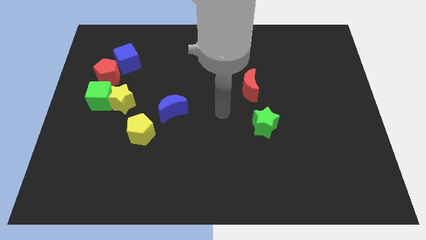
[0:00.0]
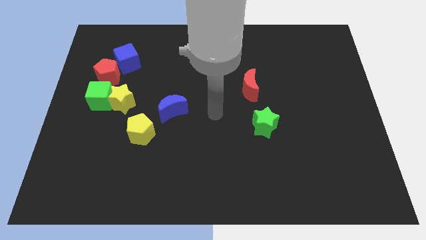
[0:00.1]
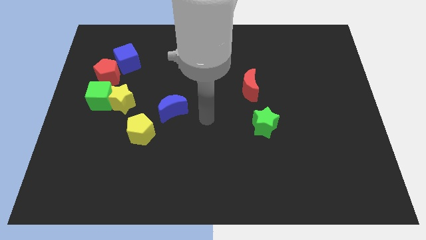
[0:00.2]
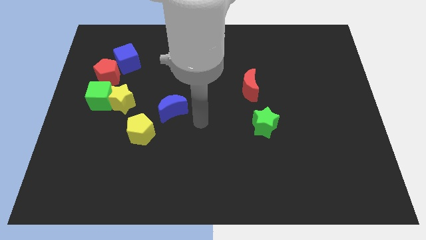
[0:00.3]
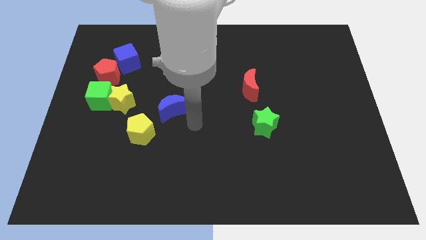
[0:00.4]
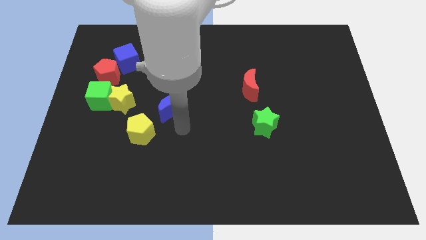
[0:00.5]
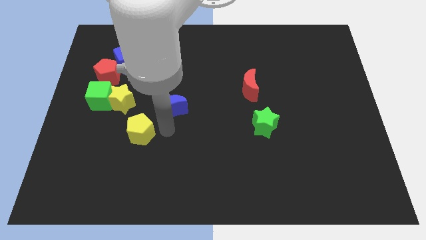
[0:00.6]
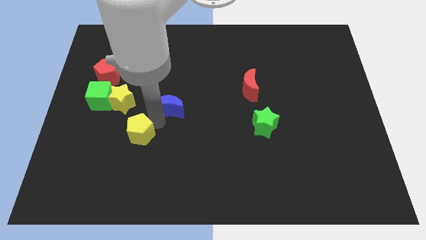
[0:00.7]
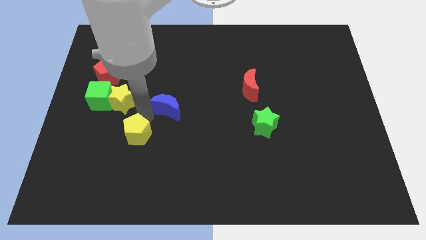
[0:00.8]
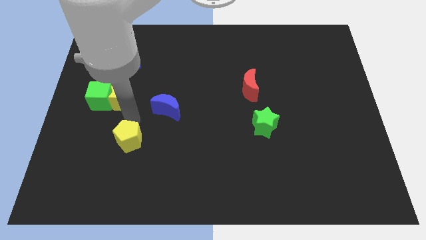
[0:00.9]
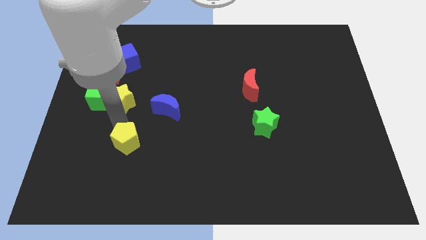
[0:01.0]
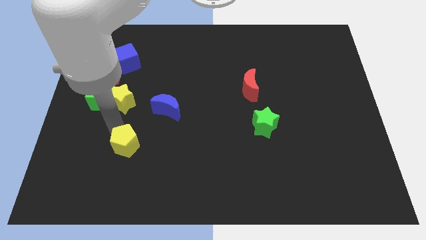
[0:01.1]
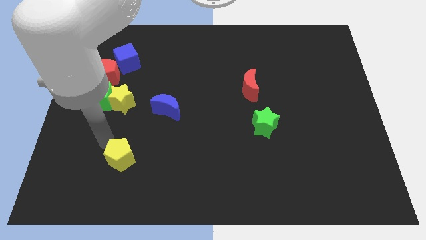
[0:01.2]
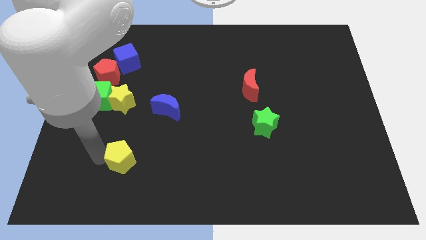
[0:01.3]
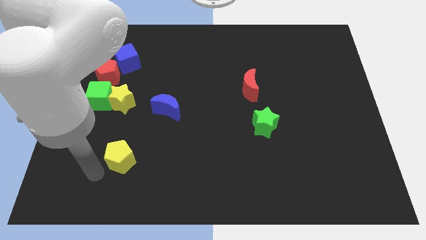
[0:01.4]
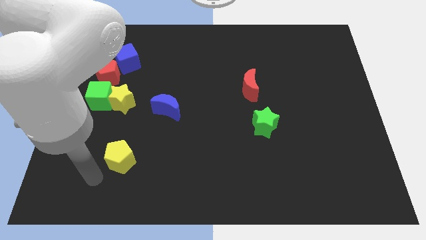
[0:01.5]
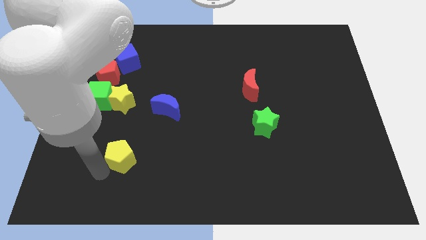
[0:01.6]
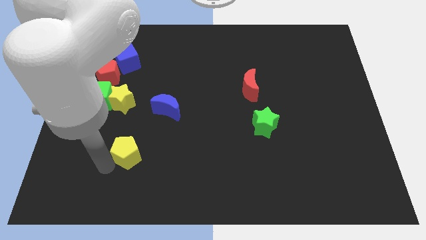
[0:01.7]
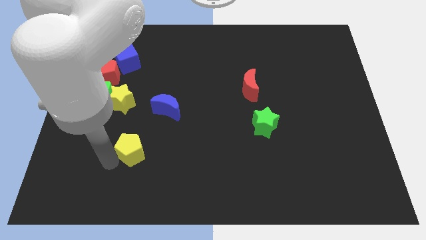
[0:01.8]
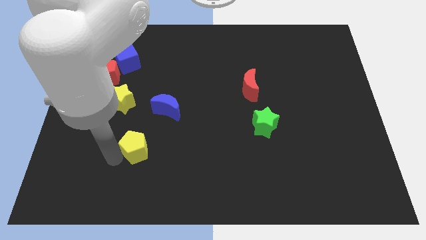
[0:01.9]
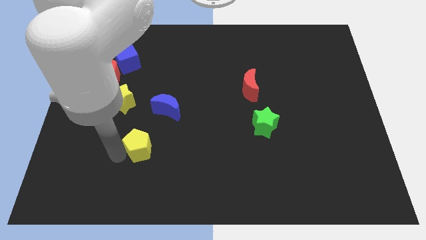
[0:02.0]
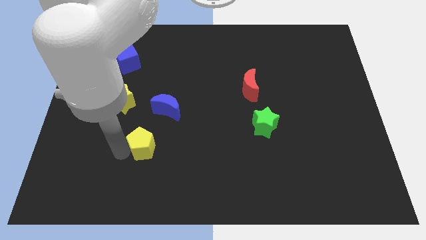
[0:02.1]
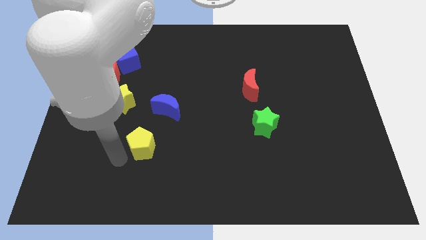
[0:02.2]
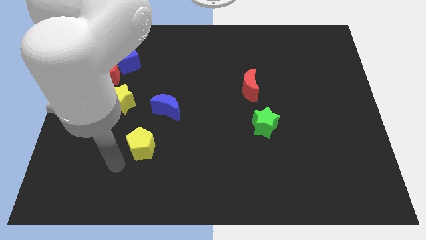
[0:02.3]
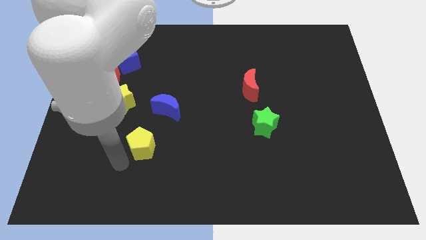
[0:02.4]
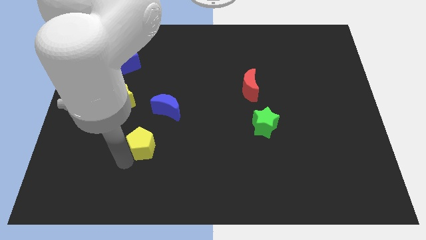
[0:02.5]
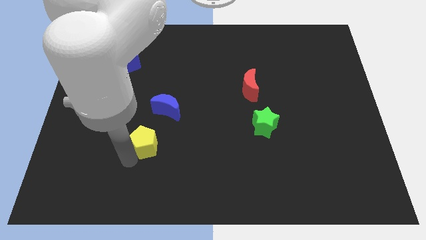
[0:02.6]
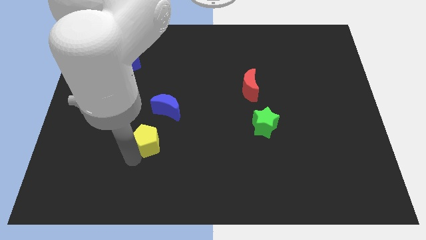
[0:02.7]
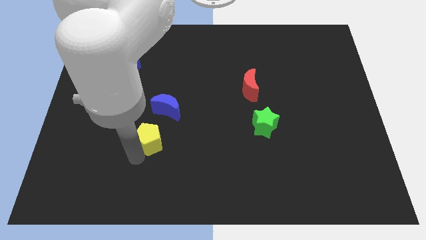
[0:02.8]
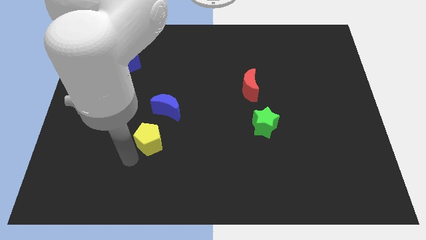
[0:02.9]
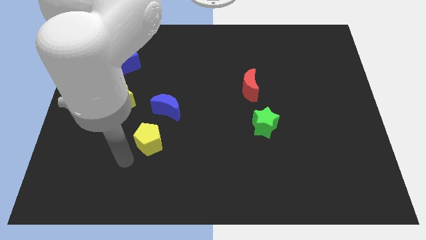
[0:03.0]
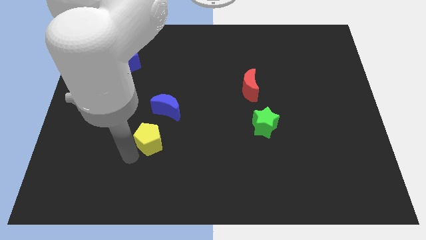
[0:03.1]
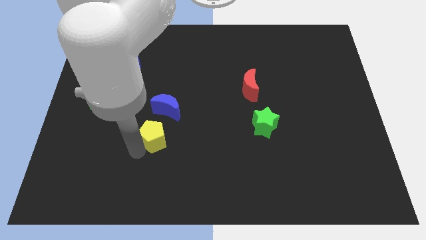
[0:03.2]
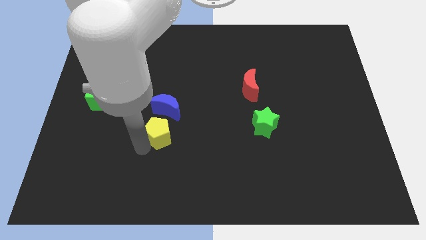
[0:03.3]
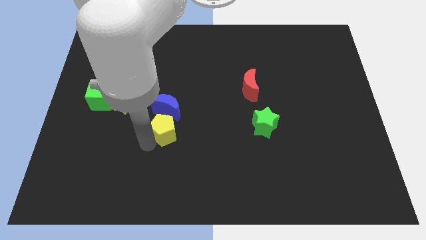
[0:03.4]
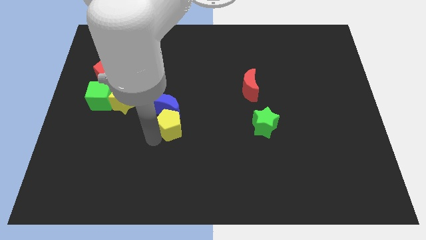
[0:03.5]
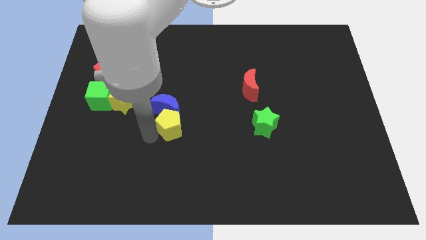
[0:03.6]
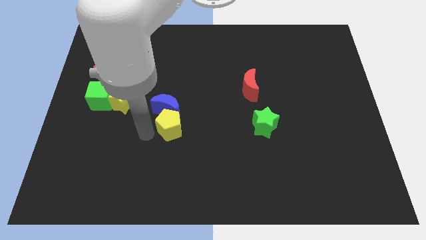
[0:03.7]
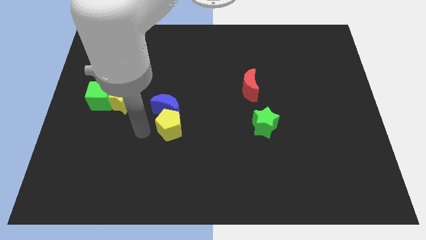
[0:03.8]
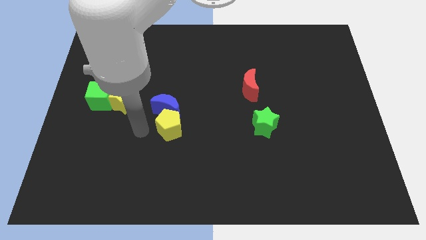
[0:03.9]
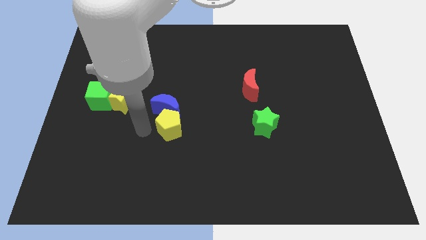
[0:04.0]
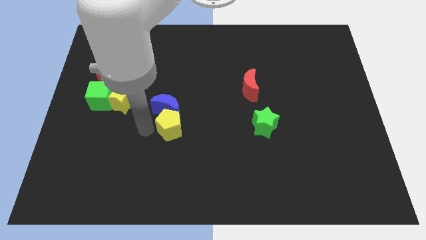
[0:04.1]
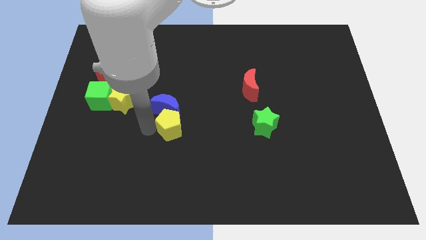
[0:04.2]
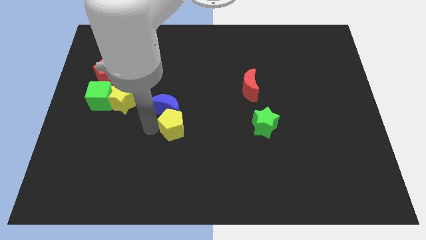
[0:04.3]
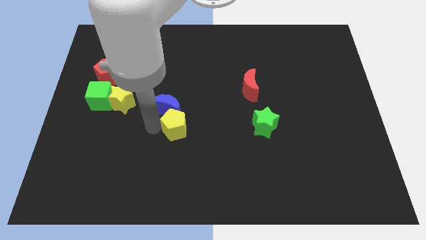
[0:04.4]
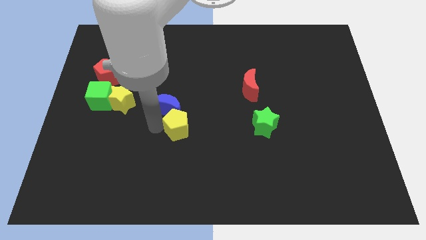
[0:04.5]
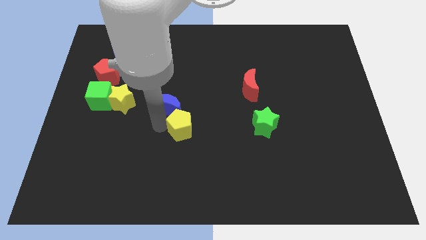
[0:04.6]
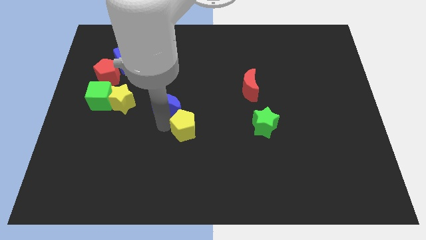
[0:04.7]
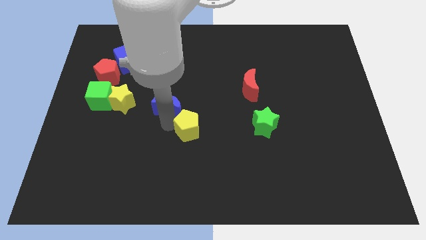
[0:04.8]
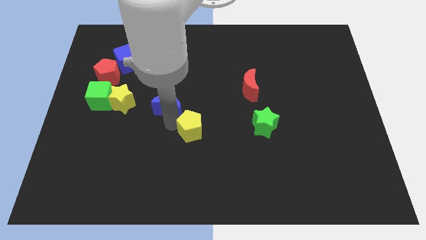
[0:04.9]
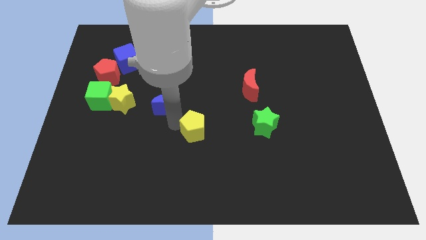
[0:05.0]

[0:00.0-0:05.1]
push the yellow pentagon to the left side of the green star

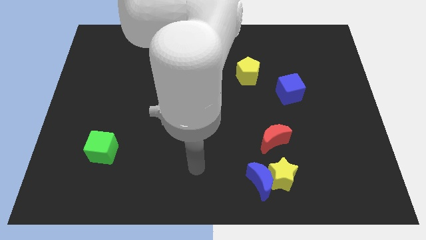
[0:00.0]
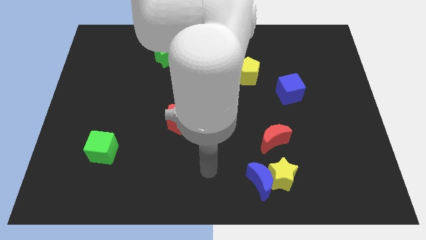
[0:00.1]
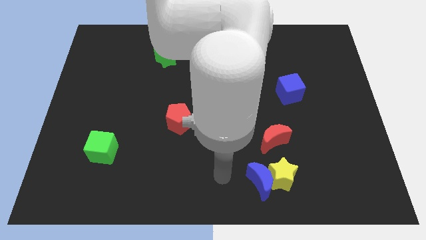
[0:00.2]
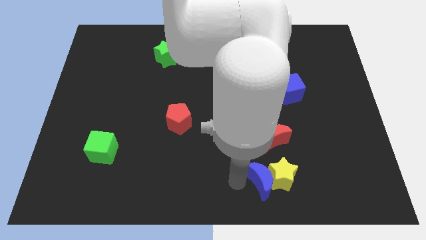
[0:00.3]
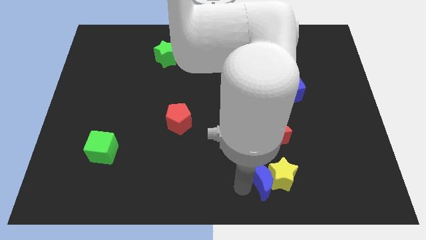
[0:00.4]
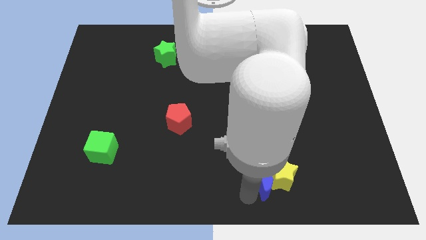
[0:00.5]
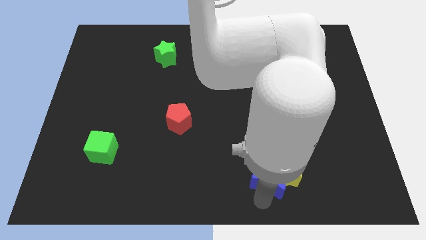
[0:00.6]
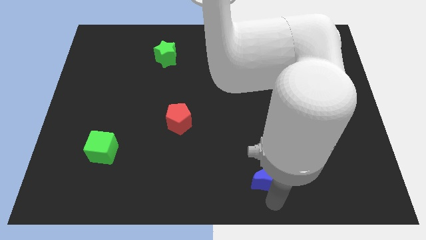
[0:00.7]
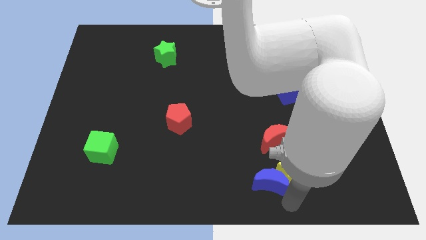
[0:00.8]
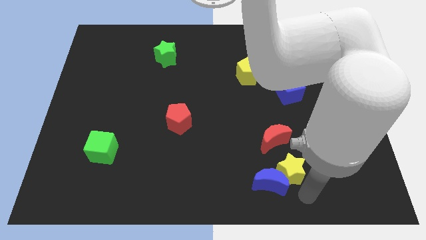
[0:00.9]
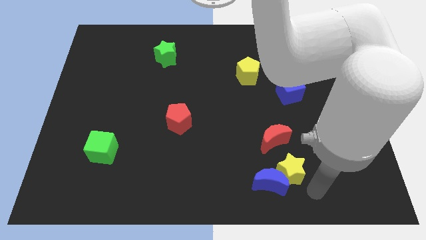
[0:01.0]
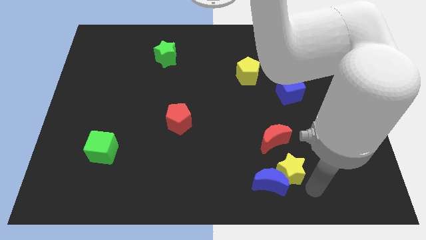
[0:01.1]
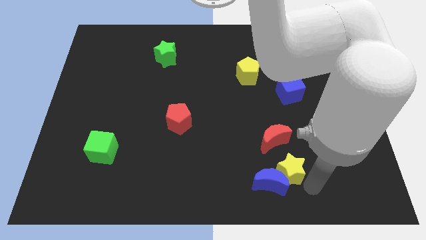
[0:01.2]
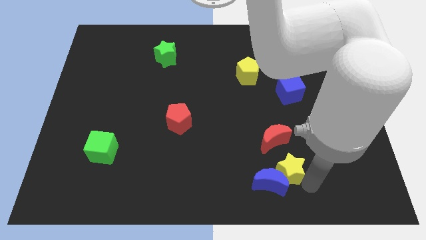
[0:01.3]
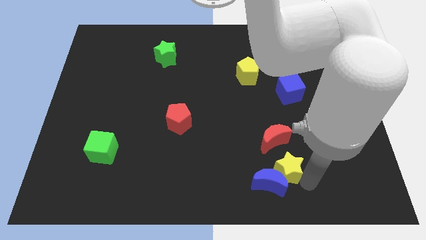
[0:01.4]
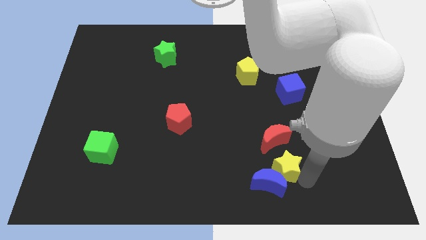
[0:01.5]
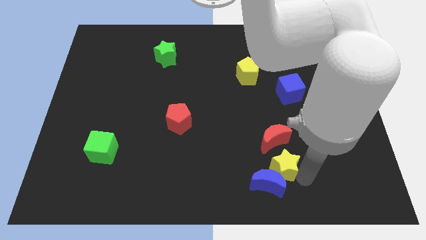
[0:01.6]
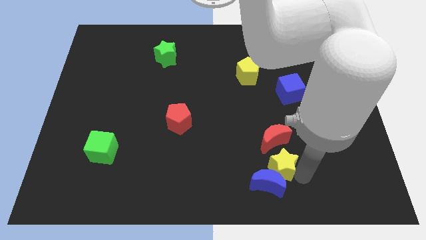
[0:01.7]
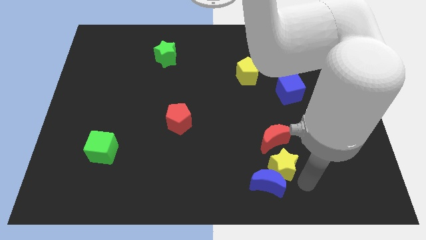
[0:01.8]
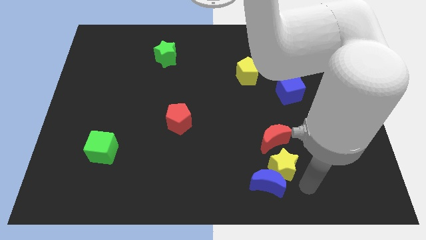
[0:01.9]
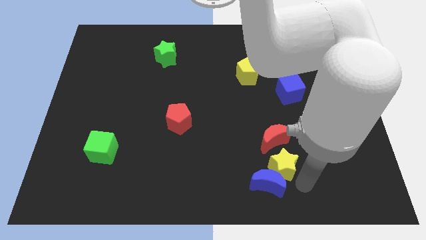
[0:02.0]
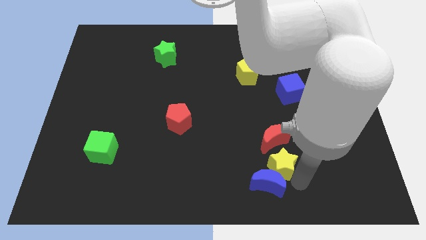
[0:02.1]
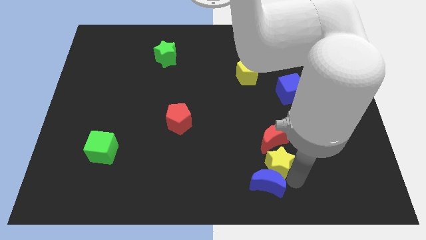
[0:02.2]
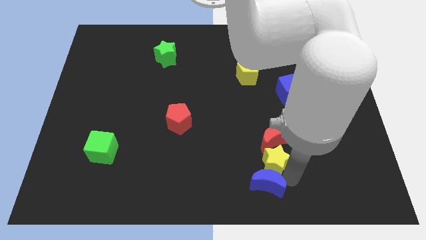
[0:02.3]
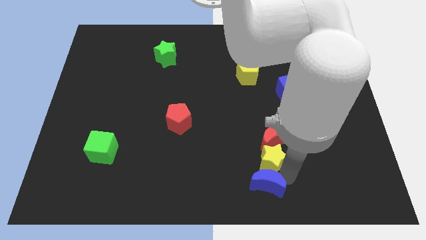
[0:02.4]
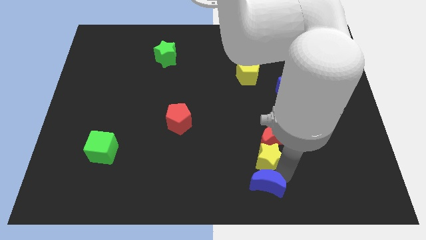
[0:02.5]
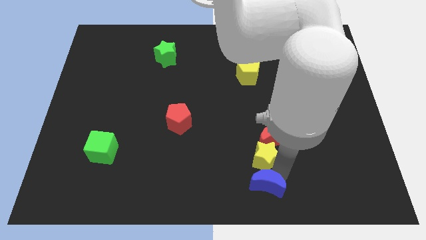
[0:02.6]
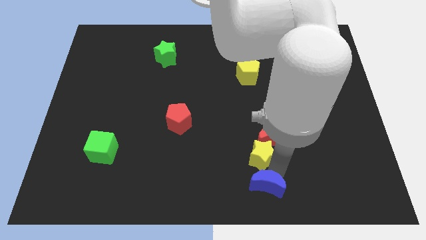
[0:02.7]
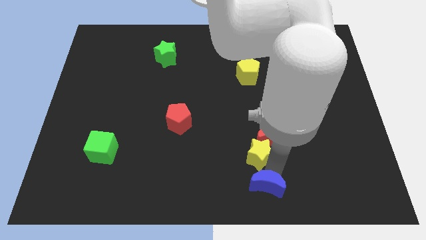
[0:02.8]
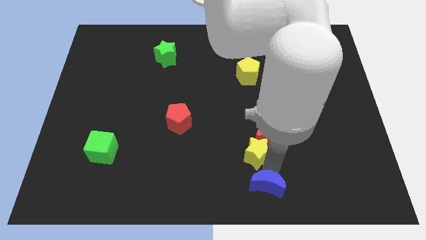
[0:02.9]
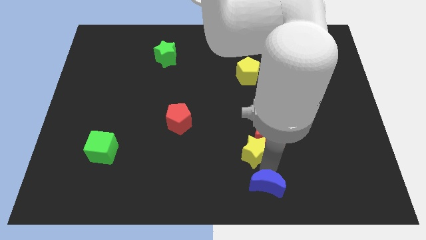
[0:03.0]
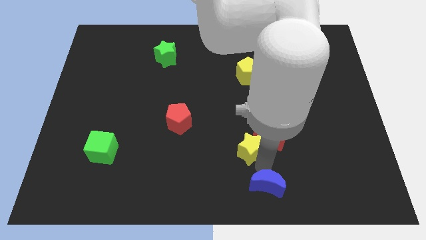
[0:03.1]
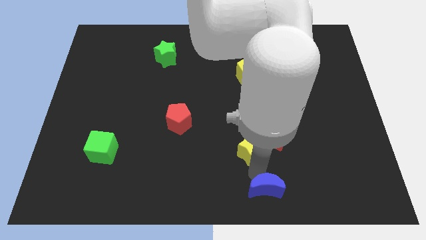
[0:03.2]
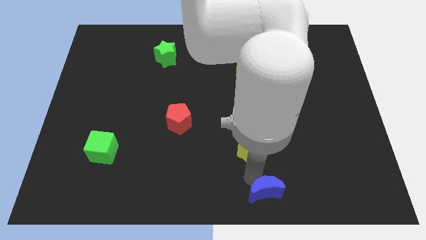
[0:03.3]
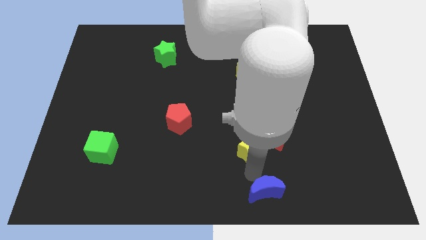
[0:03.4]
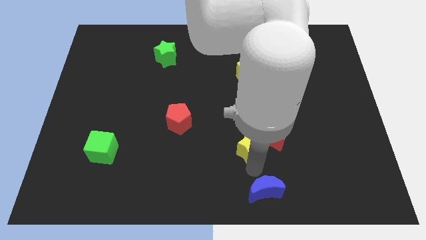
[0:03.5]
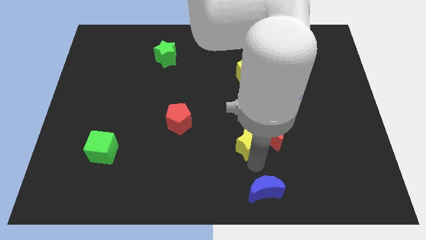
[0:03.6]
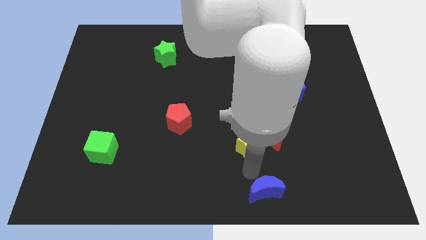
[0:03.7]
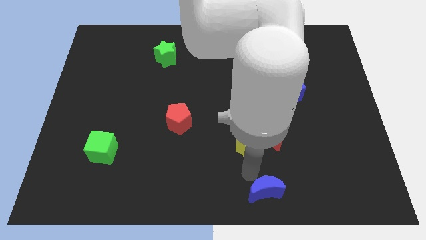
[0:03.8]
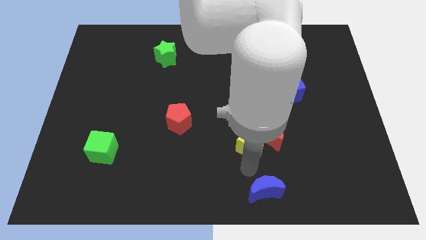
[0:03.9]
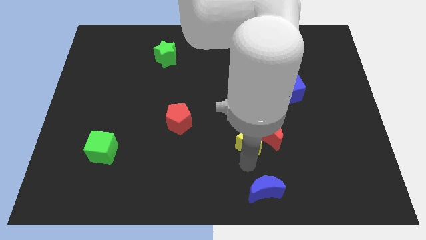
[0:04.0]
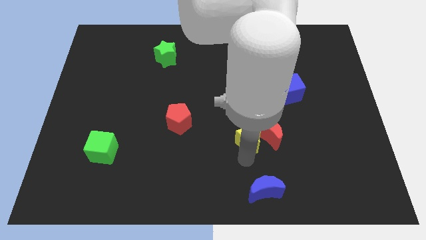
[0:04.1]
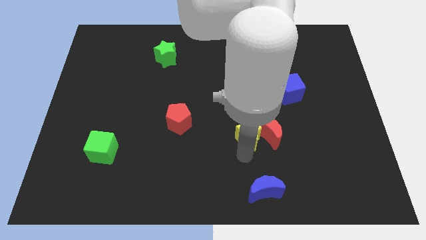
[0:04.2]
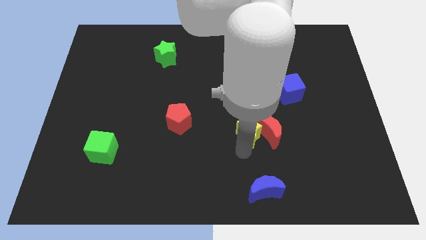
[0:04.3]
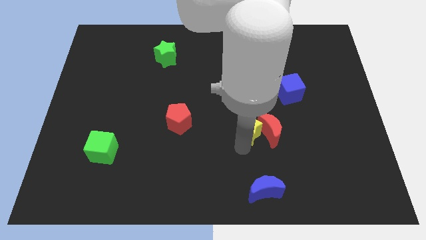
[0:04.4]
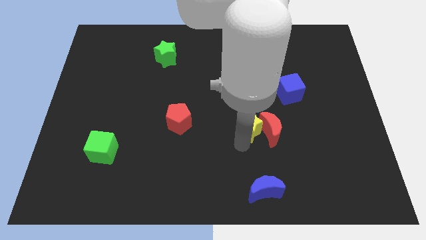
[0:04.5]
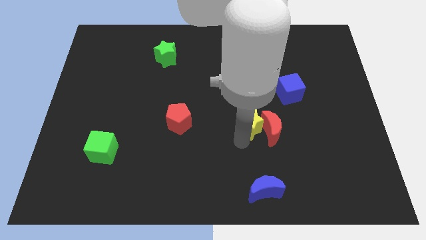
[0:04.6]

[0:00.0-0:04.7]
push the yellow star to the bottom side of the yellow pentagon
